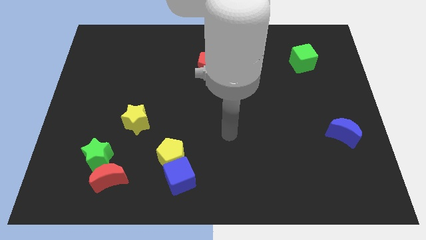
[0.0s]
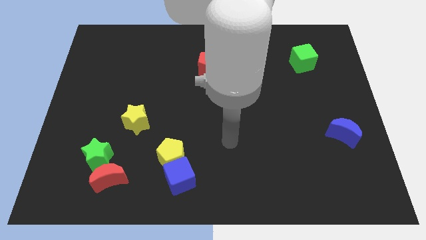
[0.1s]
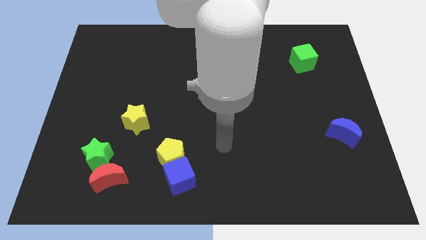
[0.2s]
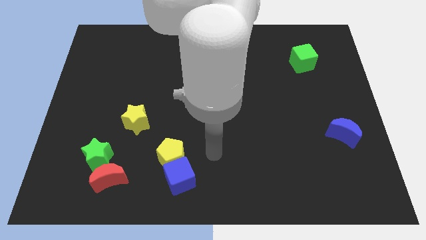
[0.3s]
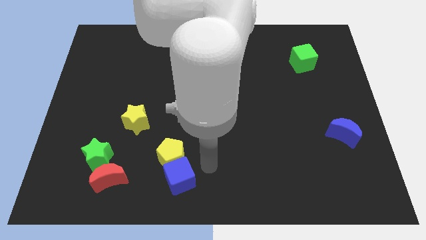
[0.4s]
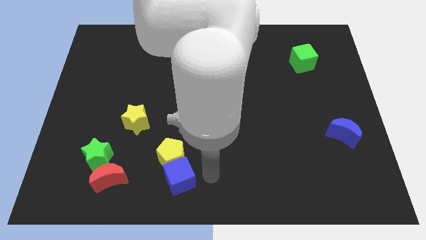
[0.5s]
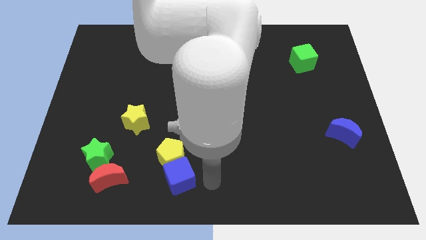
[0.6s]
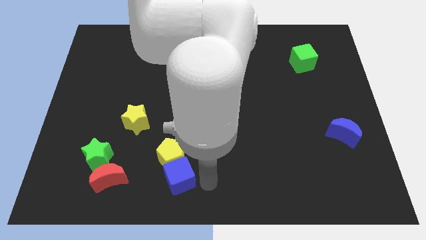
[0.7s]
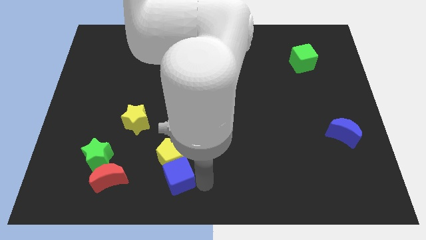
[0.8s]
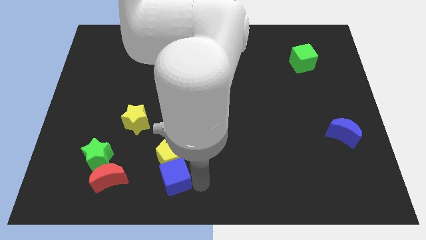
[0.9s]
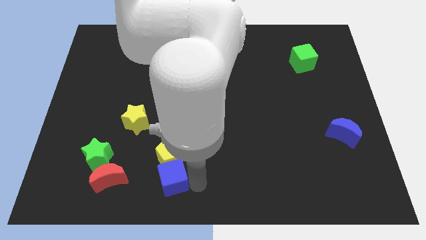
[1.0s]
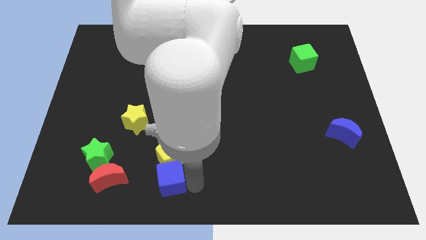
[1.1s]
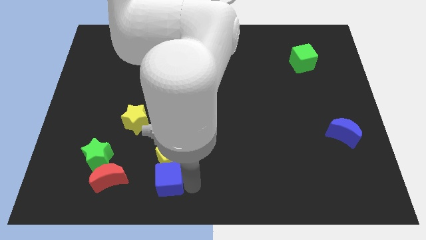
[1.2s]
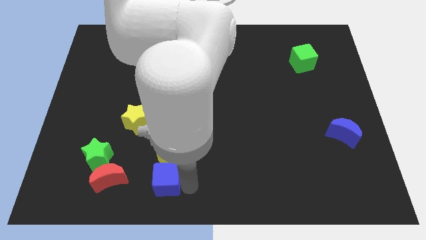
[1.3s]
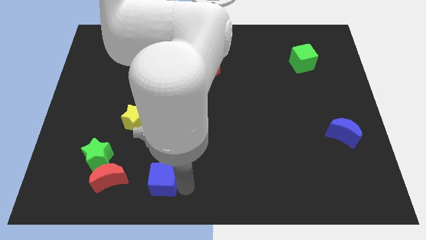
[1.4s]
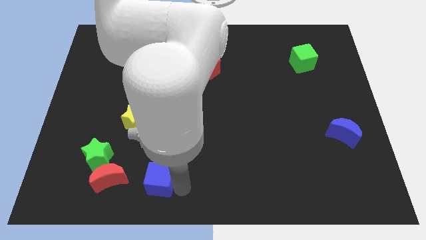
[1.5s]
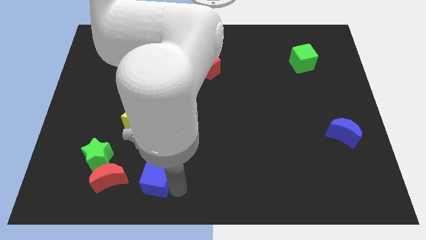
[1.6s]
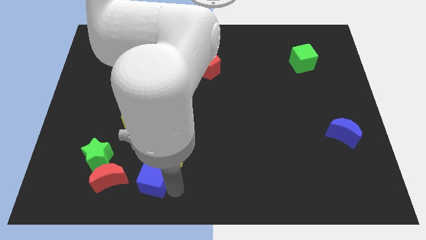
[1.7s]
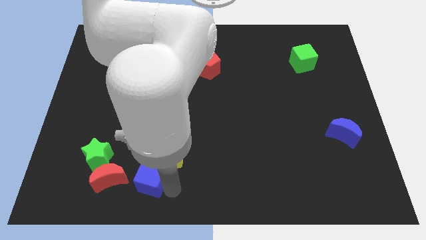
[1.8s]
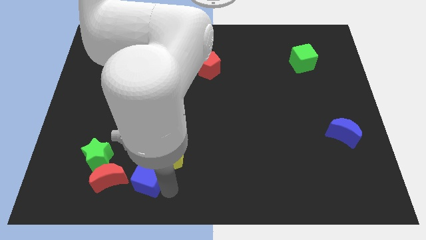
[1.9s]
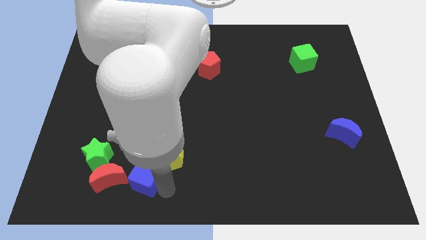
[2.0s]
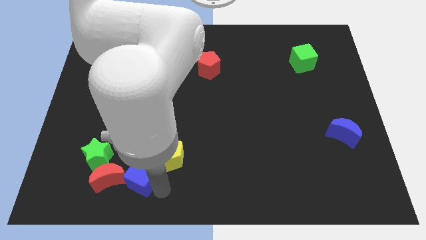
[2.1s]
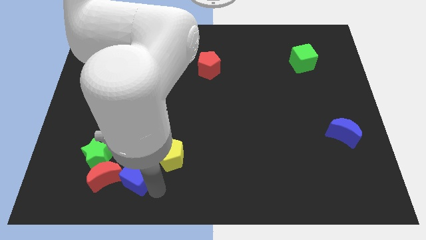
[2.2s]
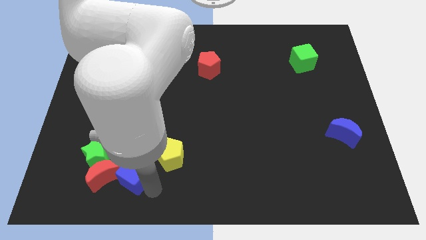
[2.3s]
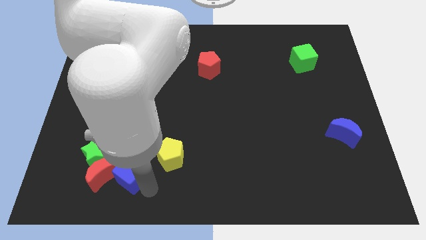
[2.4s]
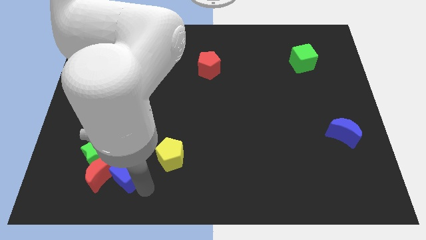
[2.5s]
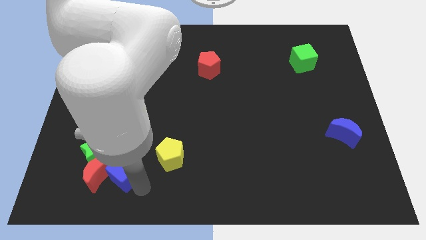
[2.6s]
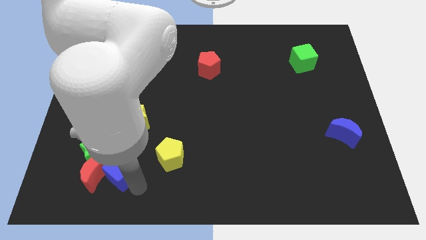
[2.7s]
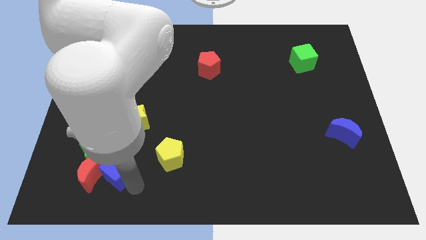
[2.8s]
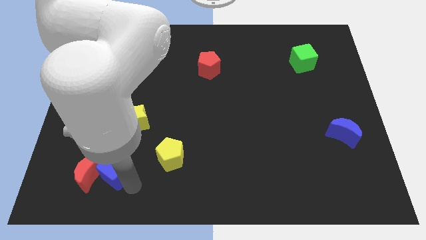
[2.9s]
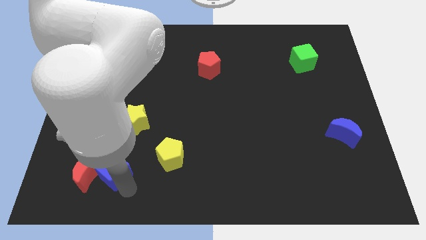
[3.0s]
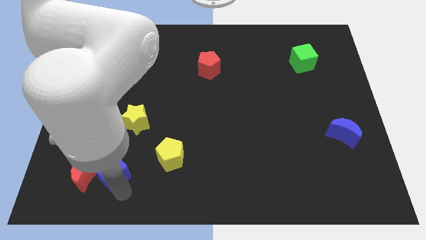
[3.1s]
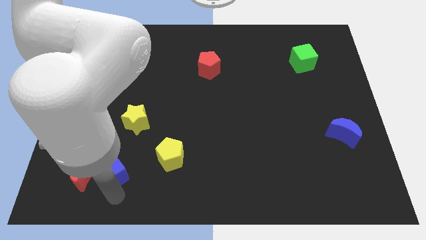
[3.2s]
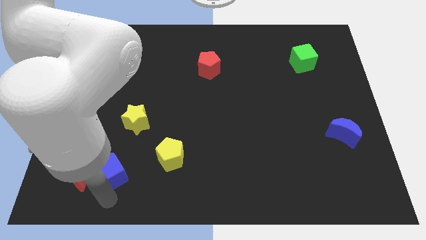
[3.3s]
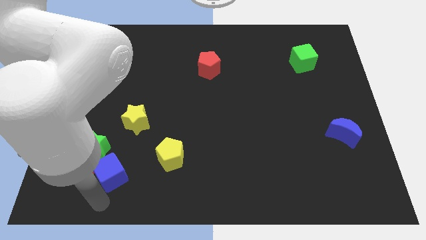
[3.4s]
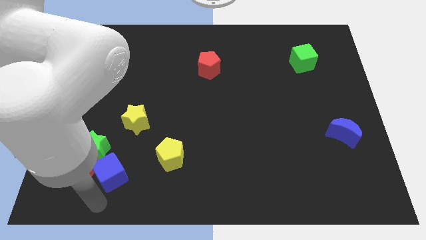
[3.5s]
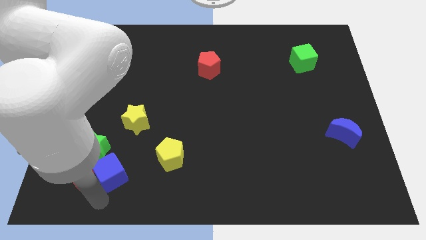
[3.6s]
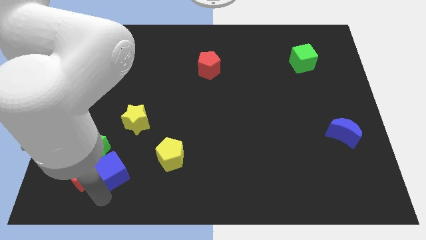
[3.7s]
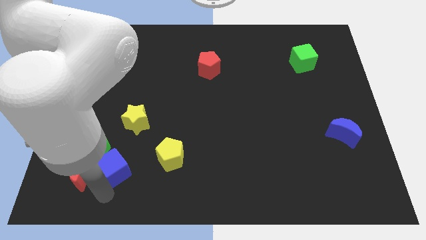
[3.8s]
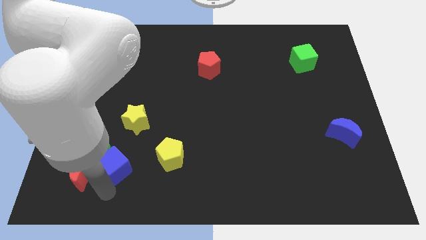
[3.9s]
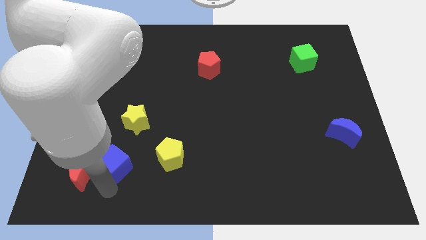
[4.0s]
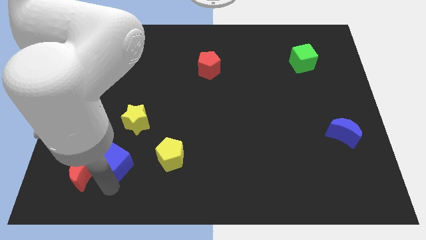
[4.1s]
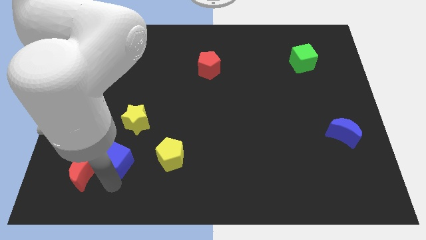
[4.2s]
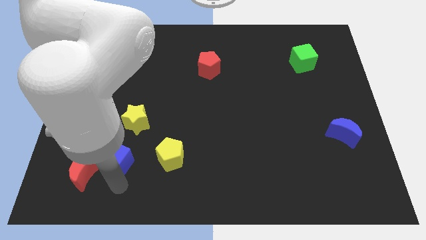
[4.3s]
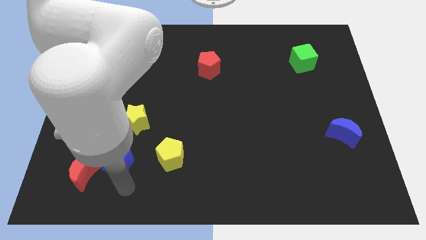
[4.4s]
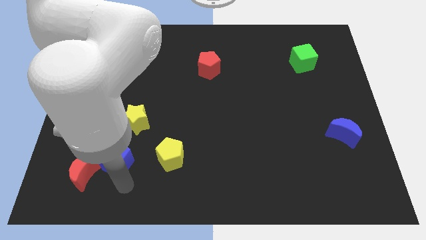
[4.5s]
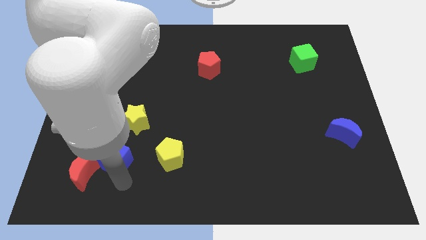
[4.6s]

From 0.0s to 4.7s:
slide the blue cube to the bottom left side of the yellow star

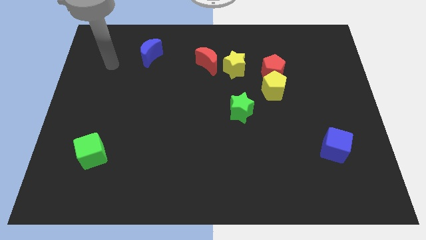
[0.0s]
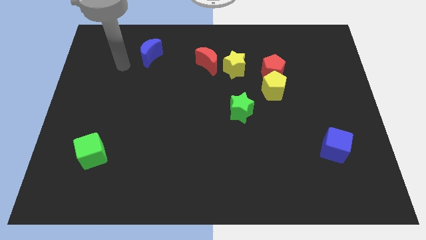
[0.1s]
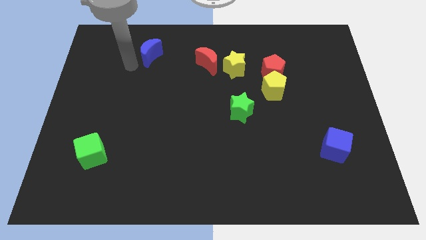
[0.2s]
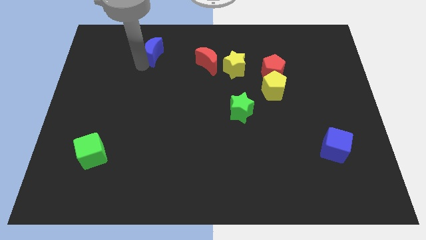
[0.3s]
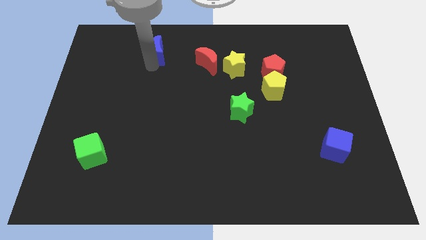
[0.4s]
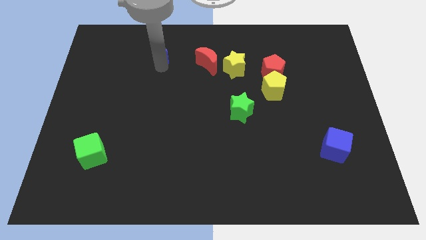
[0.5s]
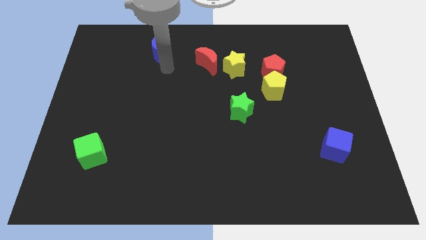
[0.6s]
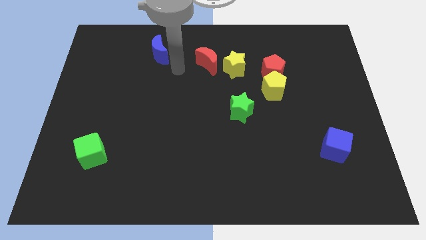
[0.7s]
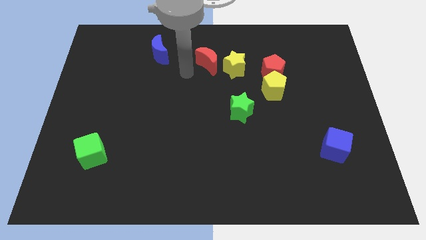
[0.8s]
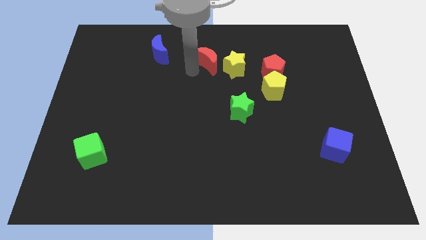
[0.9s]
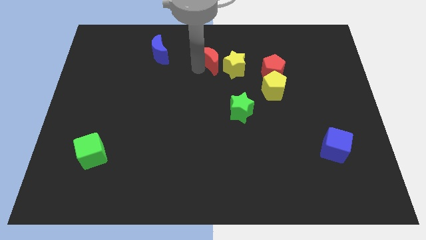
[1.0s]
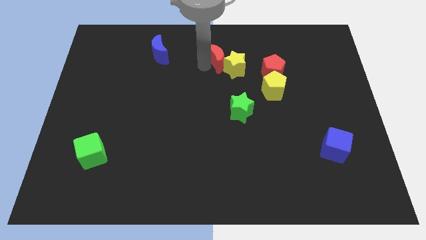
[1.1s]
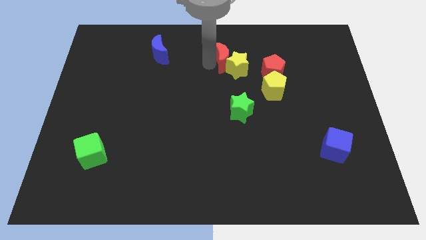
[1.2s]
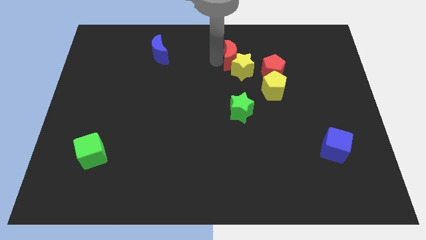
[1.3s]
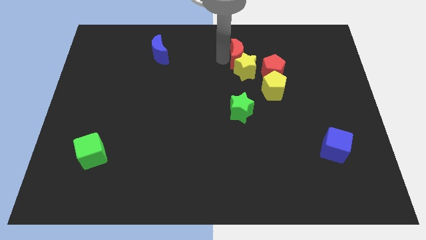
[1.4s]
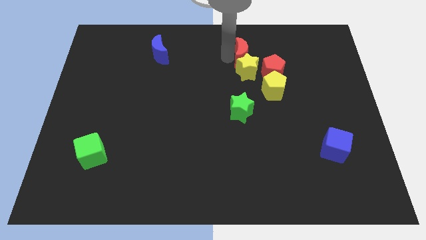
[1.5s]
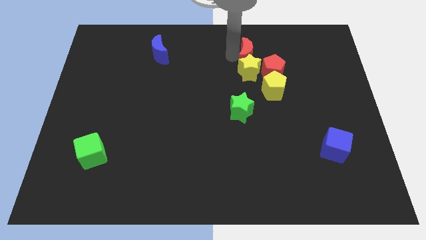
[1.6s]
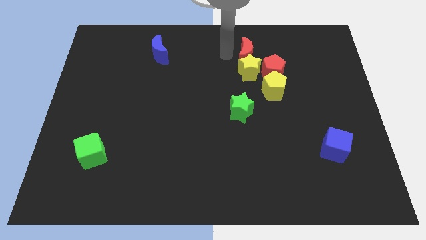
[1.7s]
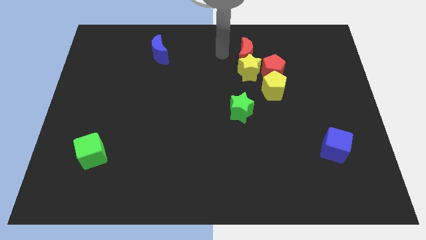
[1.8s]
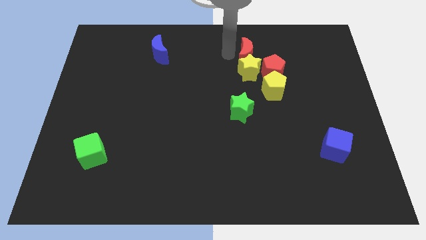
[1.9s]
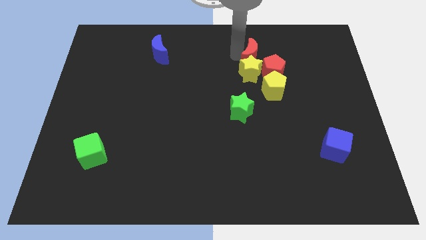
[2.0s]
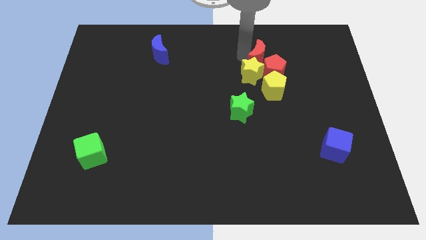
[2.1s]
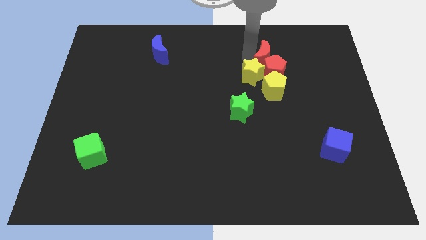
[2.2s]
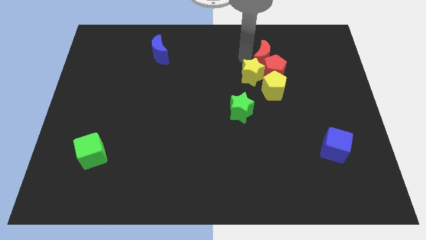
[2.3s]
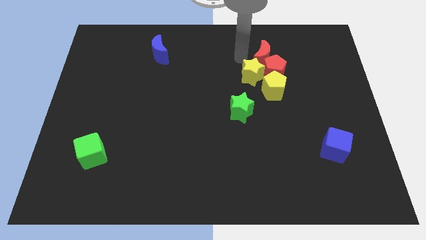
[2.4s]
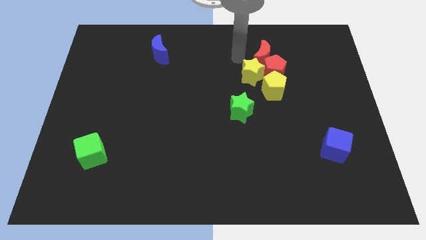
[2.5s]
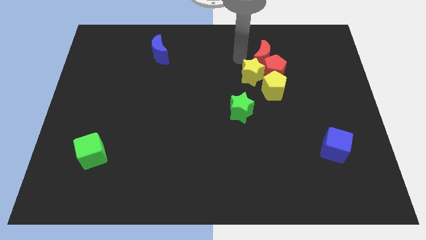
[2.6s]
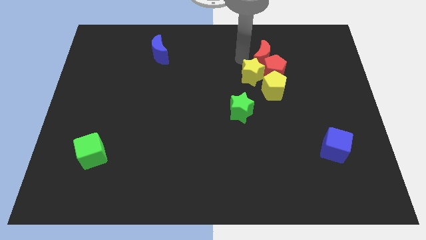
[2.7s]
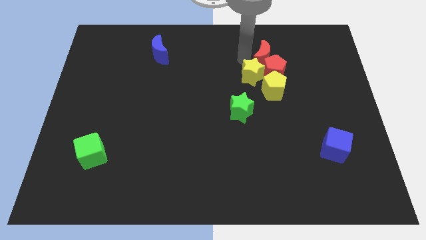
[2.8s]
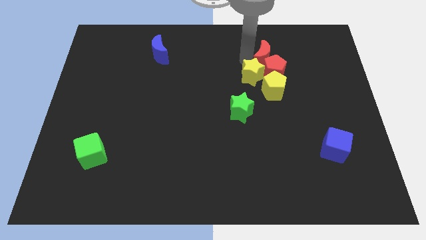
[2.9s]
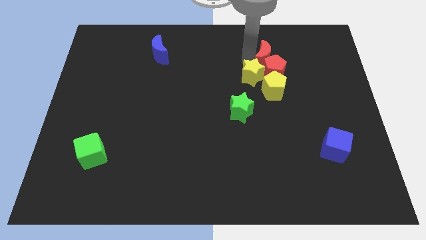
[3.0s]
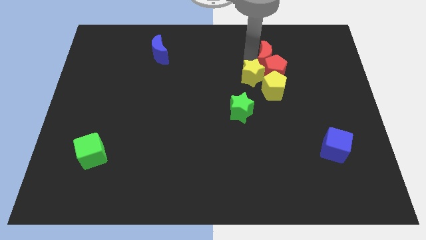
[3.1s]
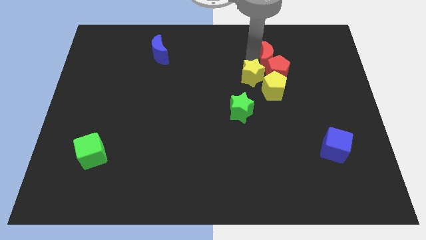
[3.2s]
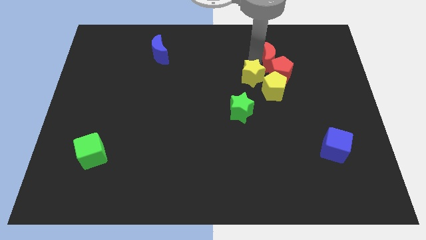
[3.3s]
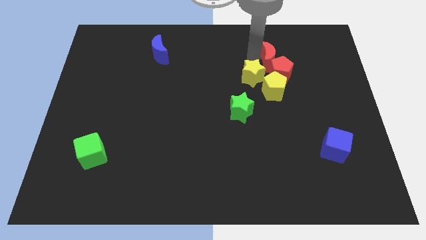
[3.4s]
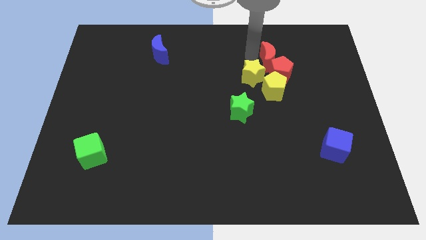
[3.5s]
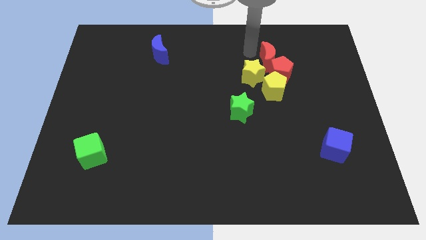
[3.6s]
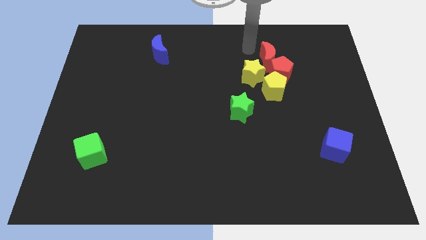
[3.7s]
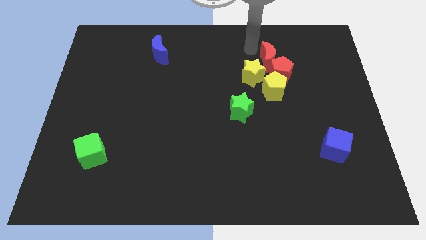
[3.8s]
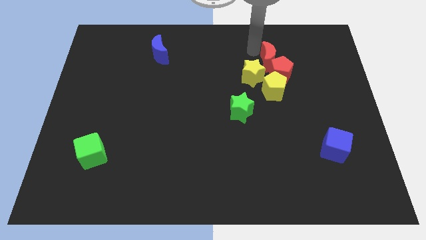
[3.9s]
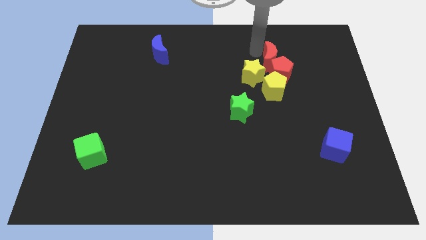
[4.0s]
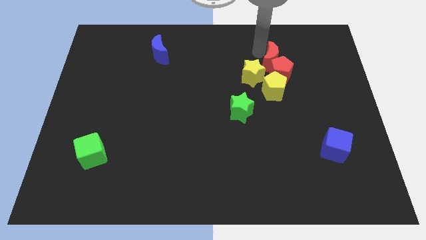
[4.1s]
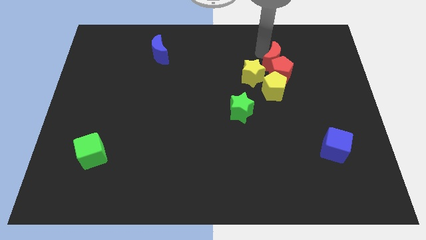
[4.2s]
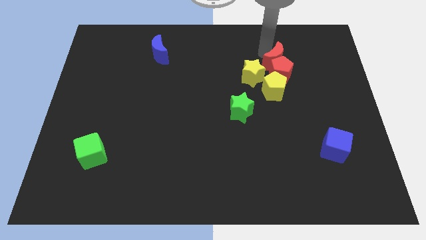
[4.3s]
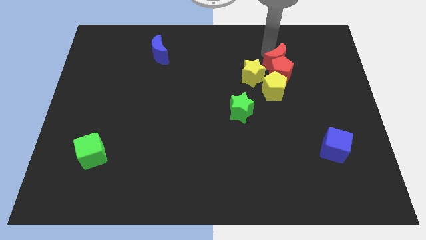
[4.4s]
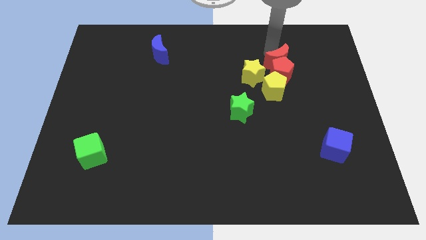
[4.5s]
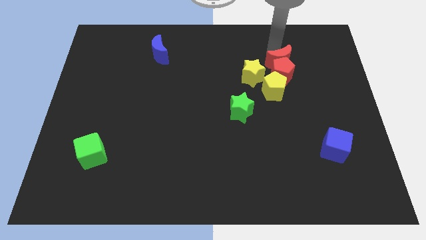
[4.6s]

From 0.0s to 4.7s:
move the red moon diagonally up and to the right of the yellow pentagon
